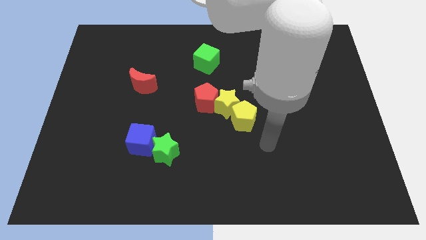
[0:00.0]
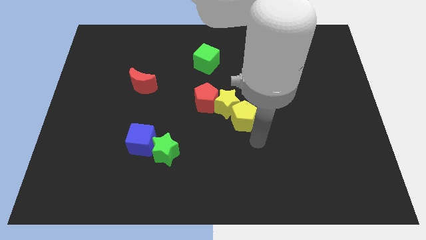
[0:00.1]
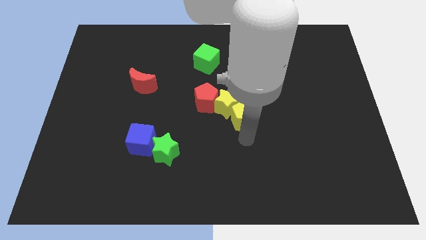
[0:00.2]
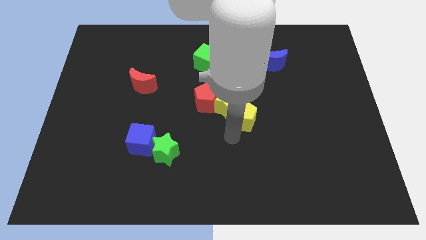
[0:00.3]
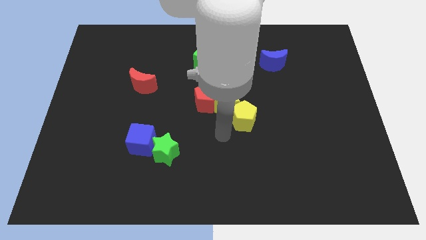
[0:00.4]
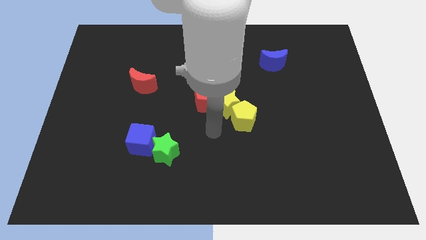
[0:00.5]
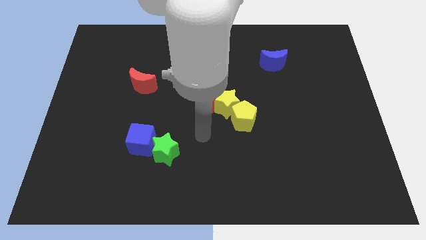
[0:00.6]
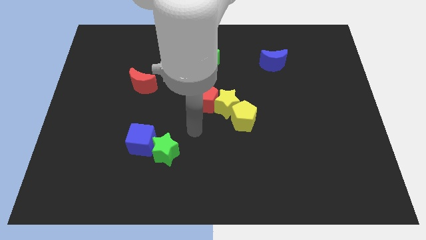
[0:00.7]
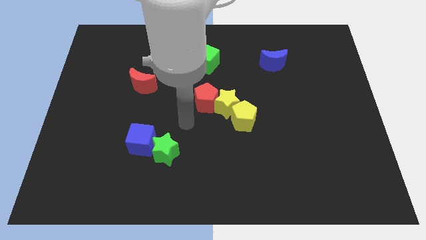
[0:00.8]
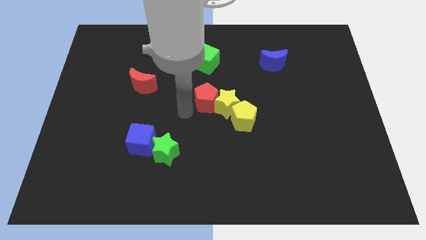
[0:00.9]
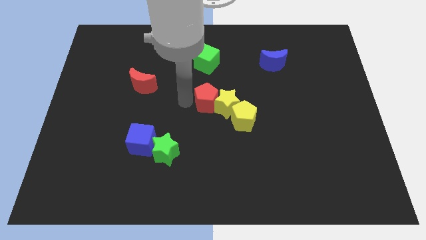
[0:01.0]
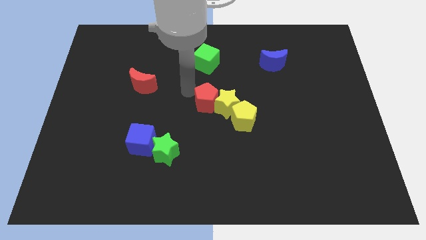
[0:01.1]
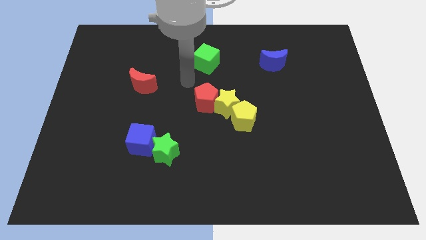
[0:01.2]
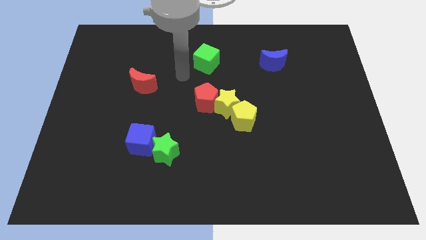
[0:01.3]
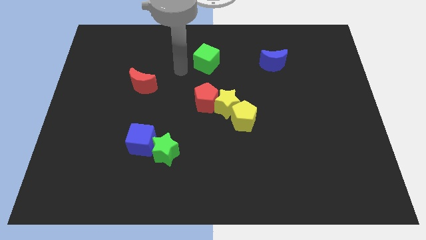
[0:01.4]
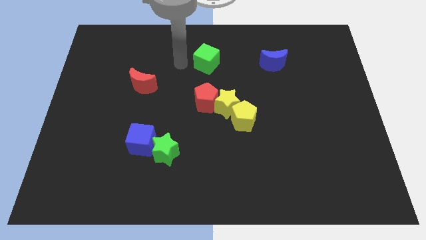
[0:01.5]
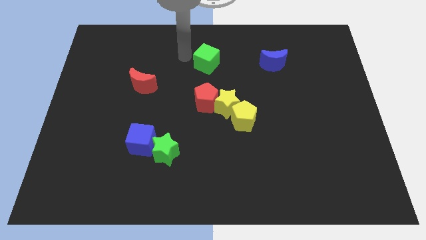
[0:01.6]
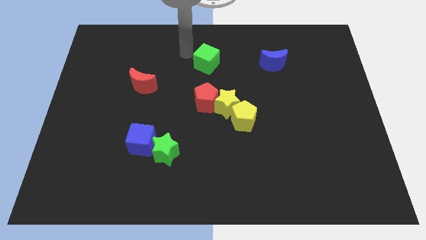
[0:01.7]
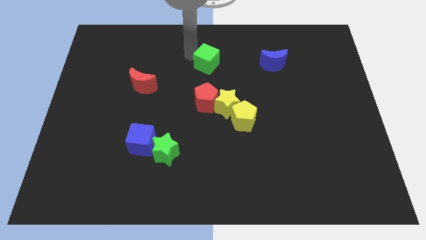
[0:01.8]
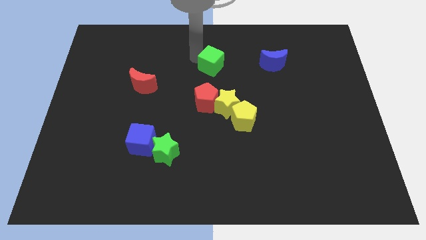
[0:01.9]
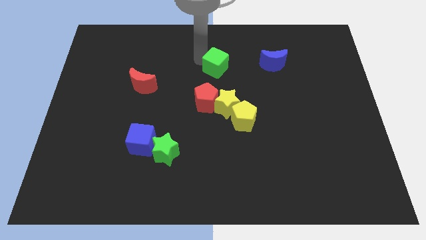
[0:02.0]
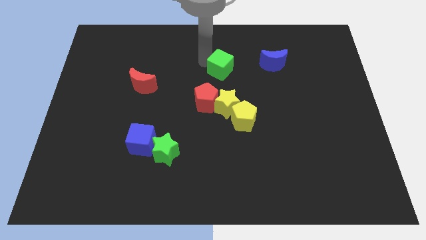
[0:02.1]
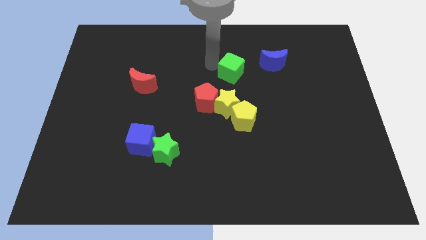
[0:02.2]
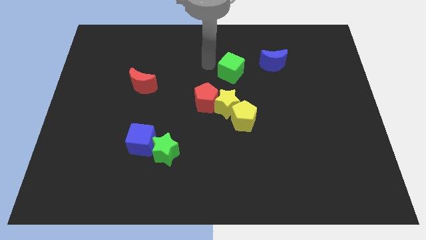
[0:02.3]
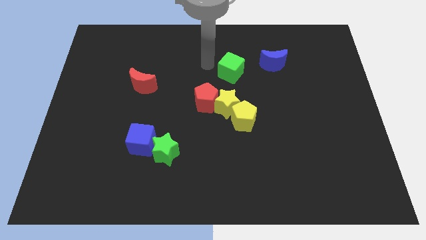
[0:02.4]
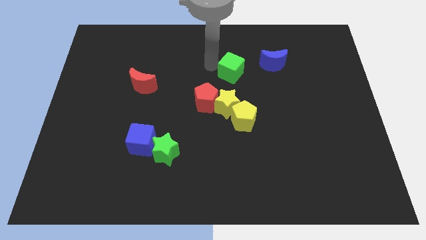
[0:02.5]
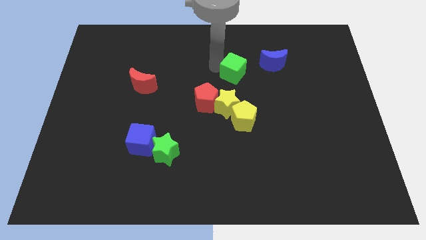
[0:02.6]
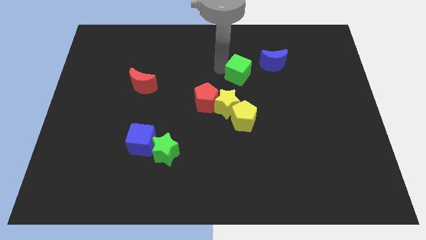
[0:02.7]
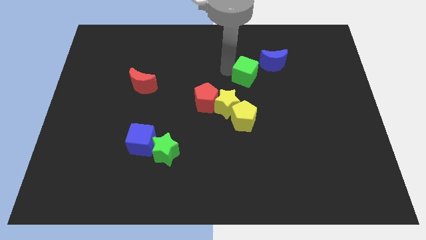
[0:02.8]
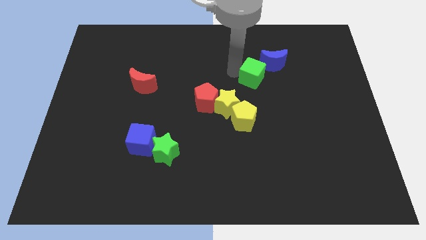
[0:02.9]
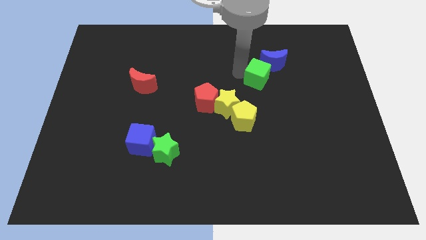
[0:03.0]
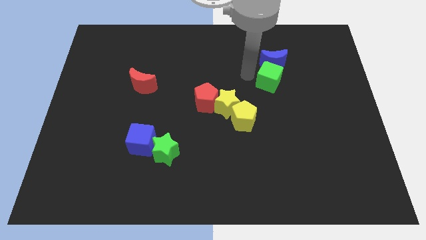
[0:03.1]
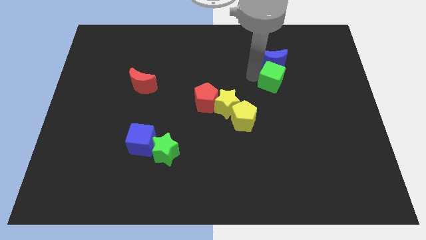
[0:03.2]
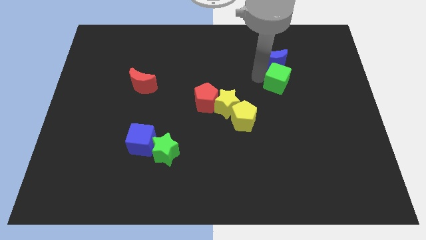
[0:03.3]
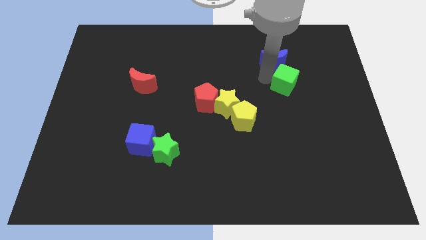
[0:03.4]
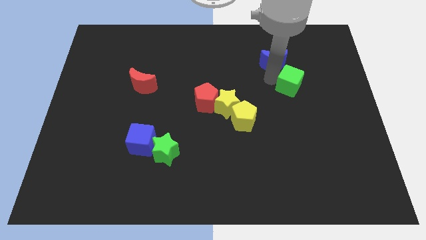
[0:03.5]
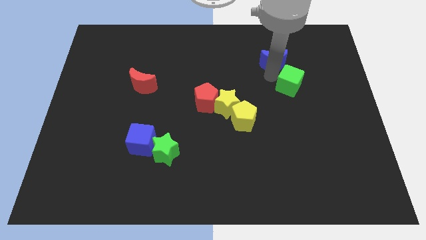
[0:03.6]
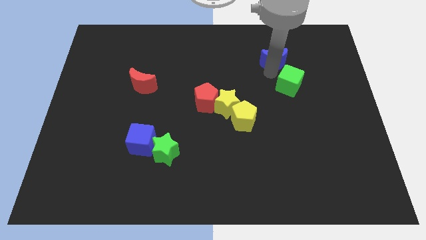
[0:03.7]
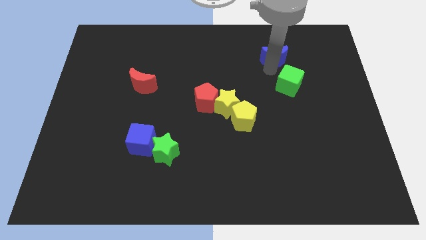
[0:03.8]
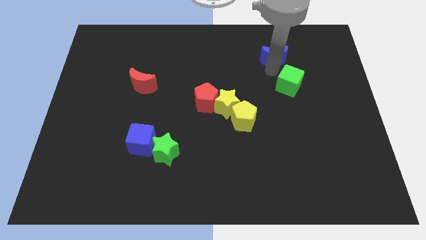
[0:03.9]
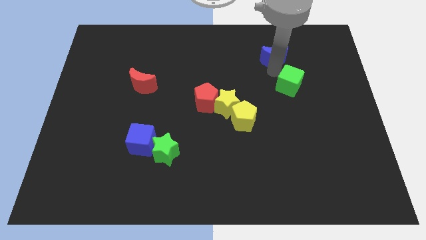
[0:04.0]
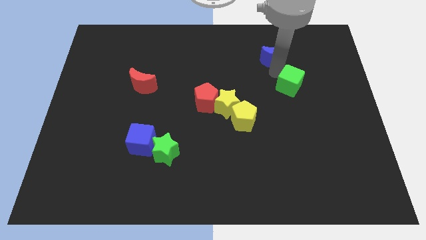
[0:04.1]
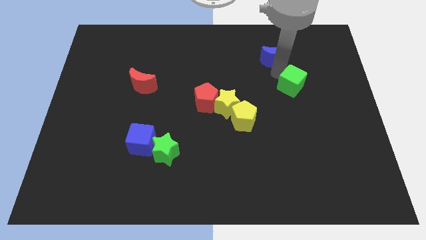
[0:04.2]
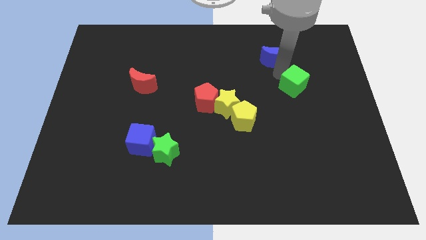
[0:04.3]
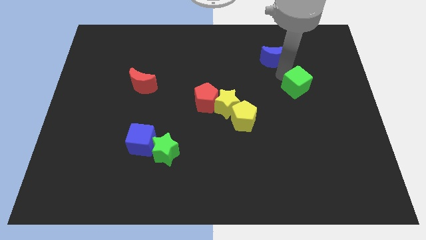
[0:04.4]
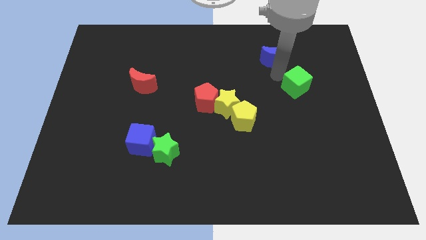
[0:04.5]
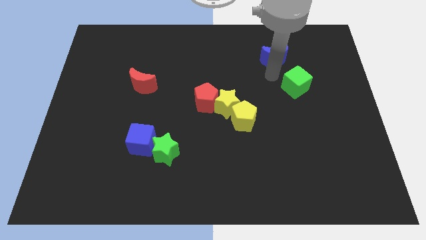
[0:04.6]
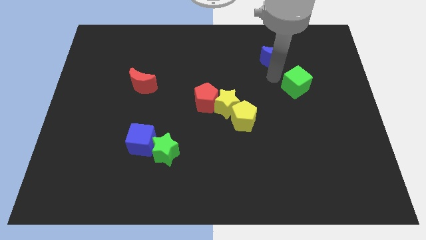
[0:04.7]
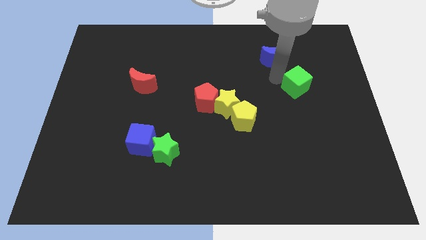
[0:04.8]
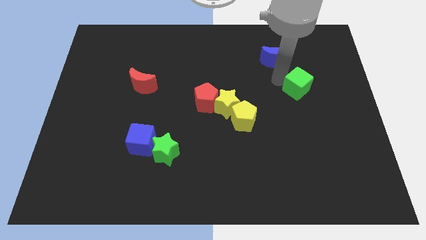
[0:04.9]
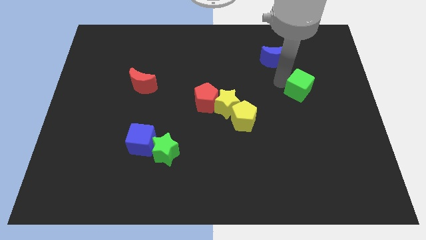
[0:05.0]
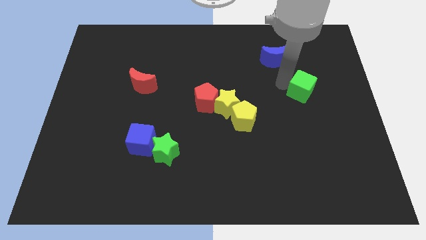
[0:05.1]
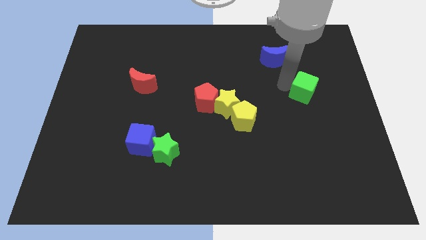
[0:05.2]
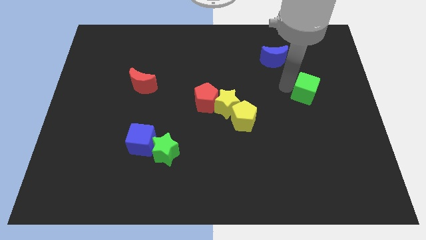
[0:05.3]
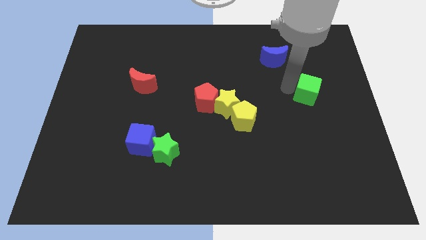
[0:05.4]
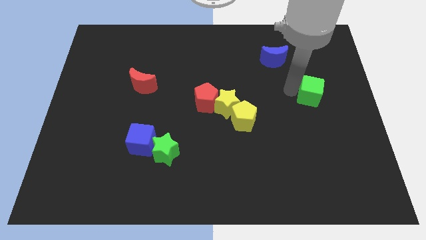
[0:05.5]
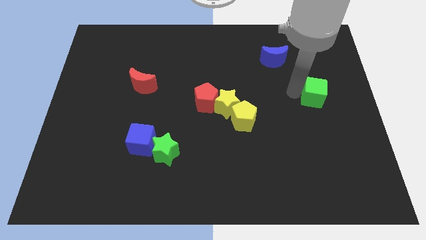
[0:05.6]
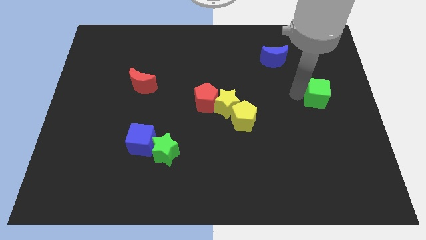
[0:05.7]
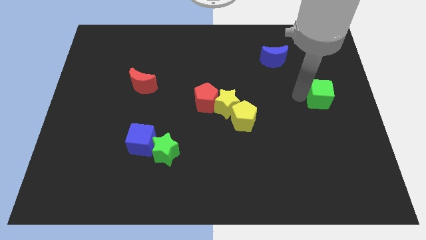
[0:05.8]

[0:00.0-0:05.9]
slide the green cube to the right side
